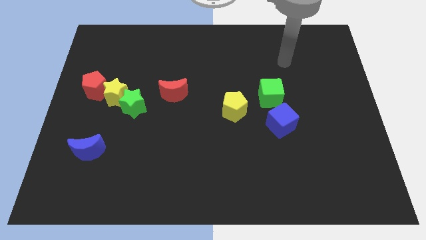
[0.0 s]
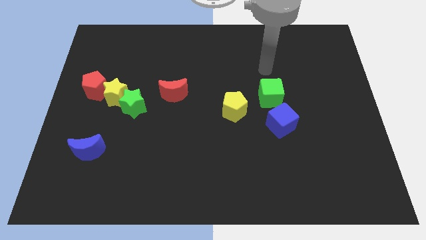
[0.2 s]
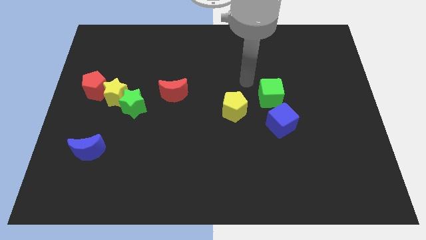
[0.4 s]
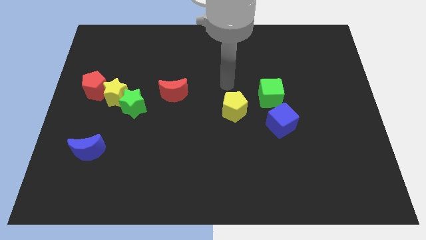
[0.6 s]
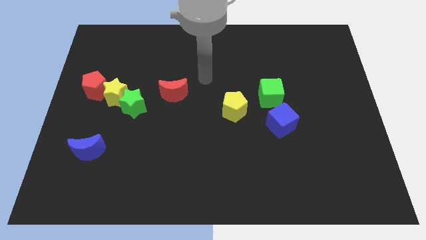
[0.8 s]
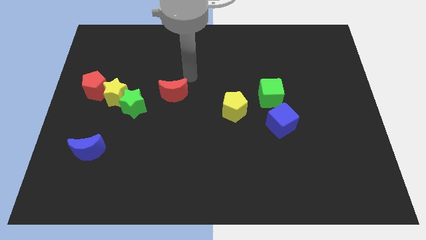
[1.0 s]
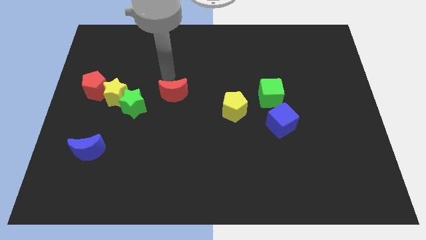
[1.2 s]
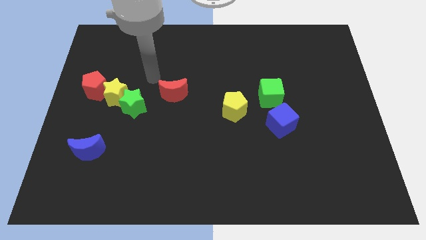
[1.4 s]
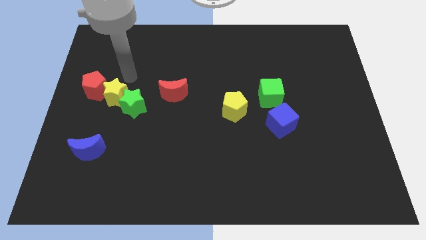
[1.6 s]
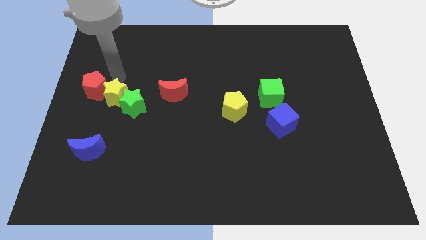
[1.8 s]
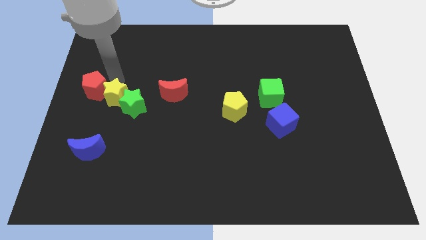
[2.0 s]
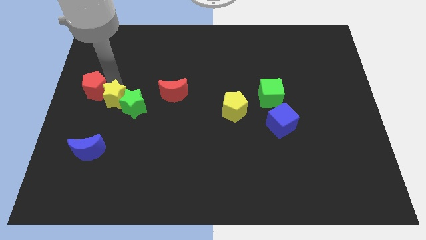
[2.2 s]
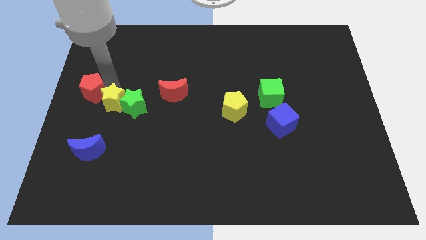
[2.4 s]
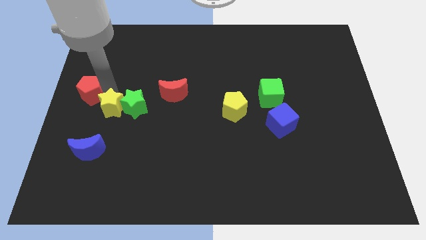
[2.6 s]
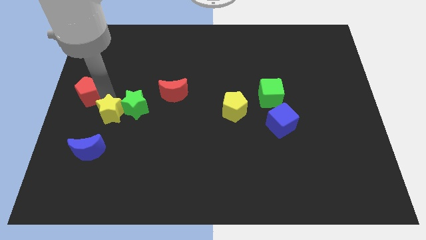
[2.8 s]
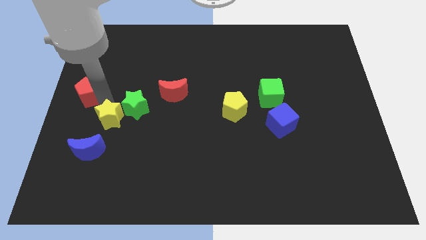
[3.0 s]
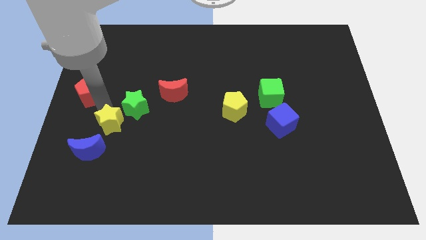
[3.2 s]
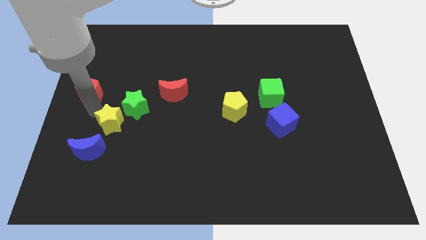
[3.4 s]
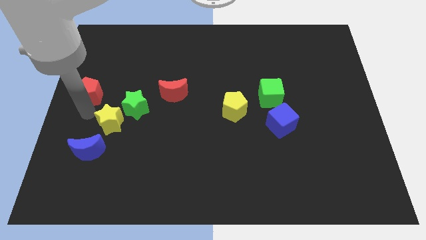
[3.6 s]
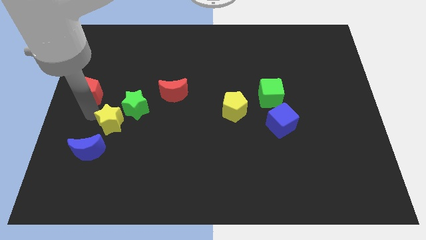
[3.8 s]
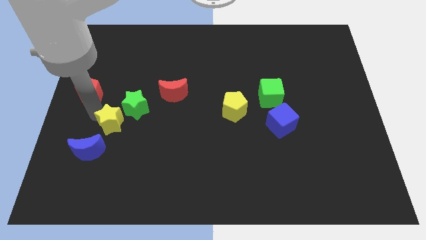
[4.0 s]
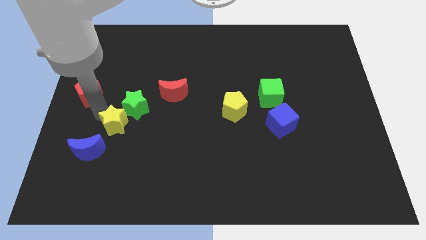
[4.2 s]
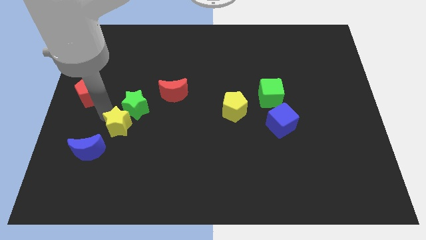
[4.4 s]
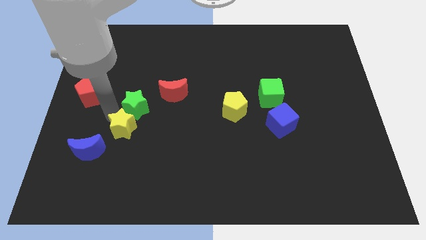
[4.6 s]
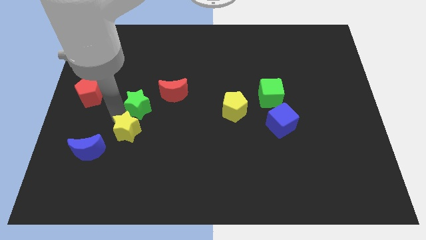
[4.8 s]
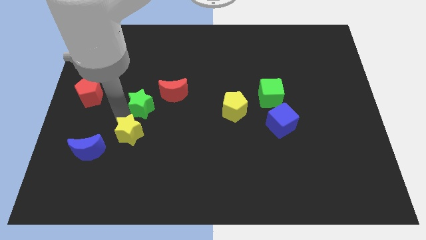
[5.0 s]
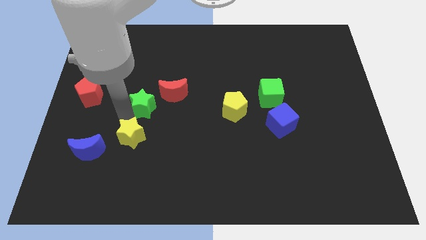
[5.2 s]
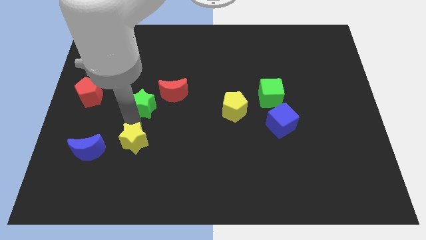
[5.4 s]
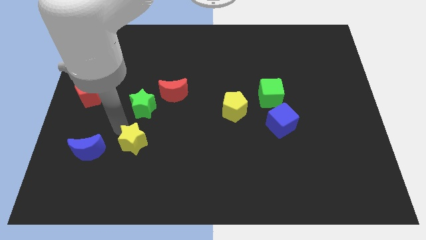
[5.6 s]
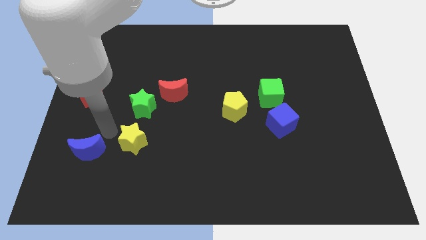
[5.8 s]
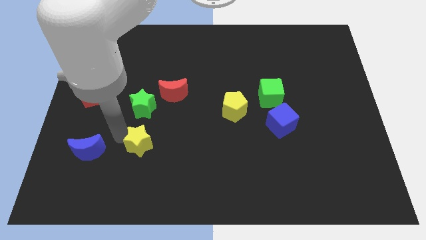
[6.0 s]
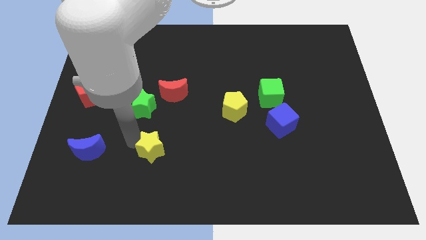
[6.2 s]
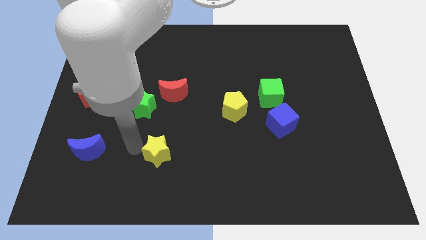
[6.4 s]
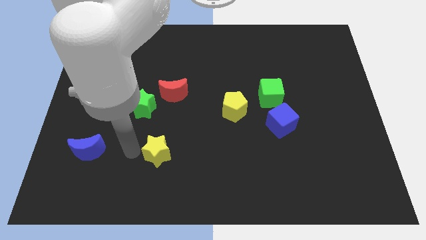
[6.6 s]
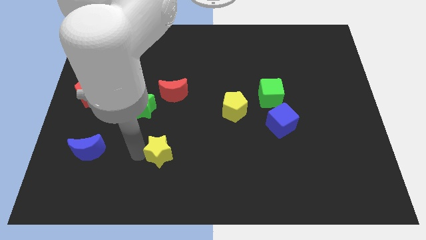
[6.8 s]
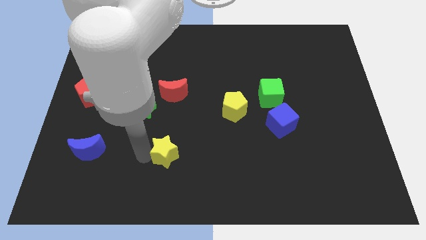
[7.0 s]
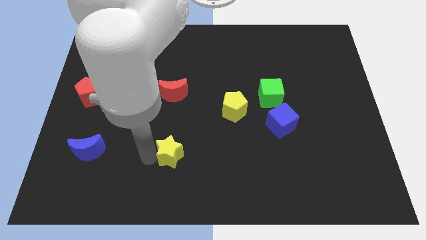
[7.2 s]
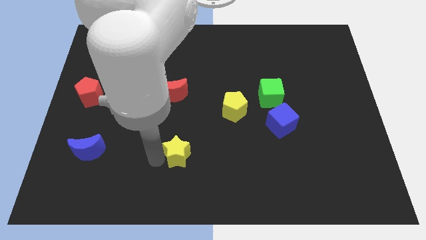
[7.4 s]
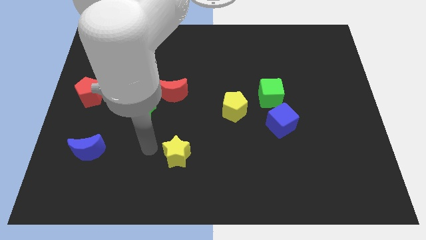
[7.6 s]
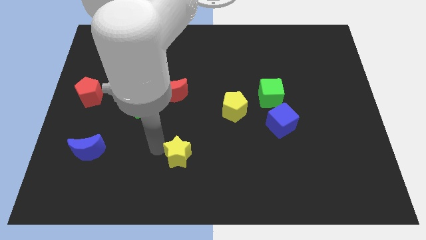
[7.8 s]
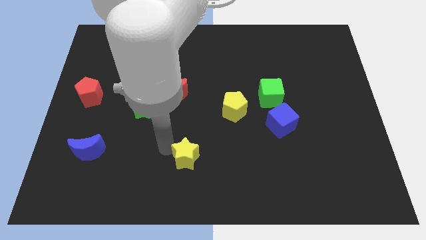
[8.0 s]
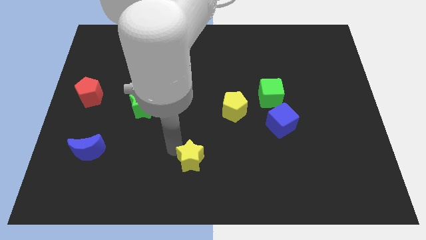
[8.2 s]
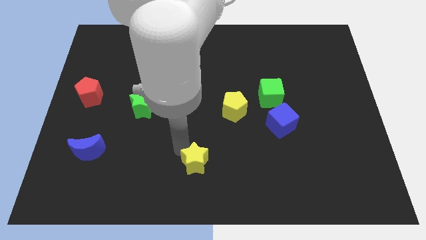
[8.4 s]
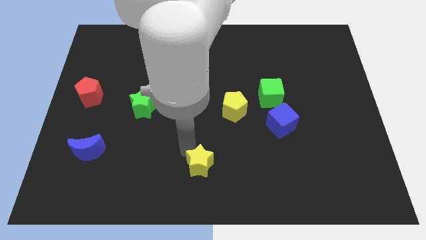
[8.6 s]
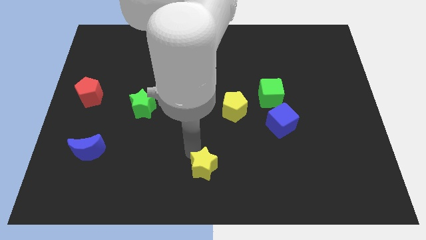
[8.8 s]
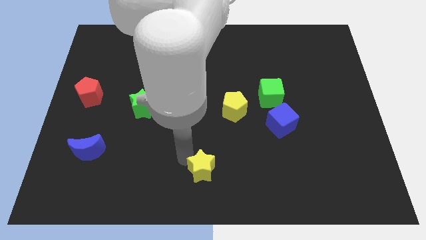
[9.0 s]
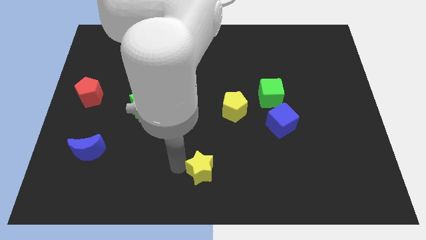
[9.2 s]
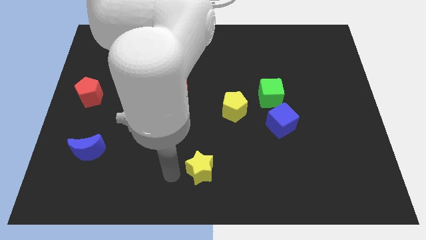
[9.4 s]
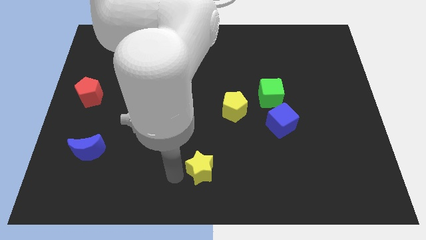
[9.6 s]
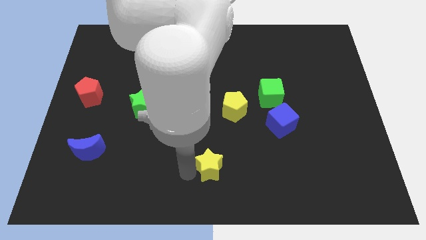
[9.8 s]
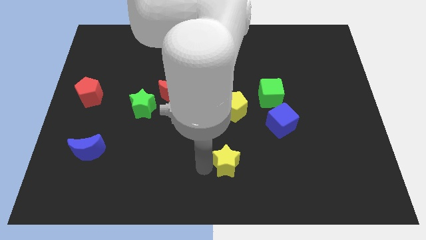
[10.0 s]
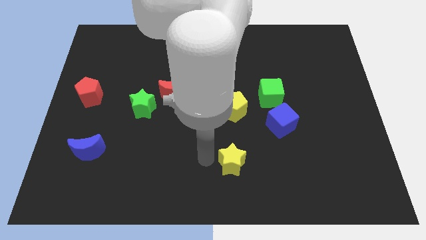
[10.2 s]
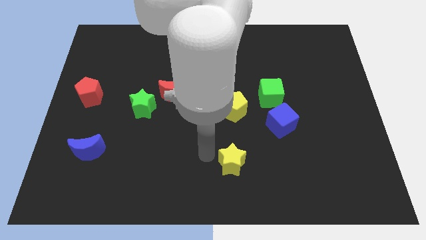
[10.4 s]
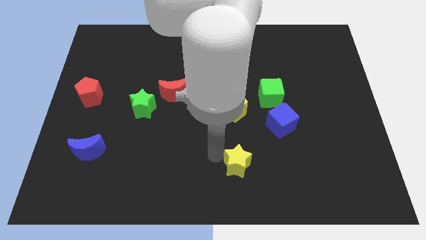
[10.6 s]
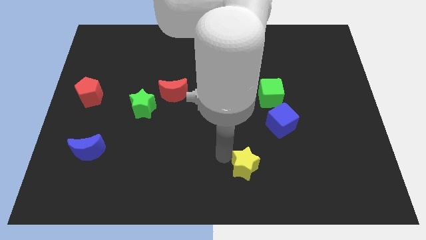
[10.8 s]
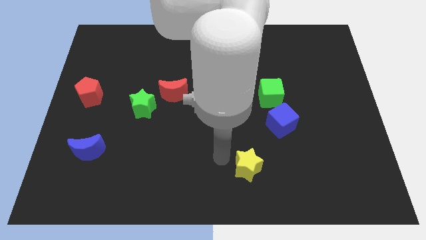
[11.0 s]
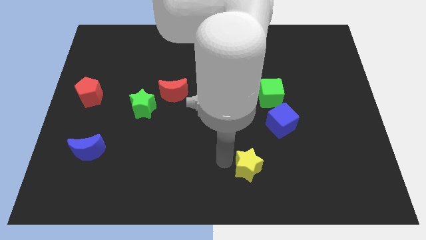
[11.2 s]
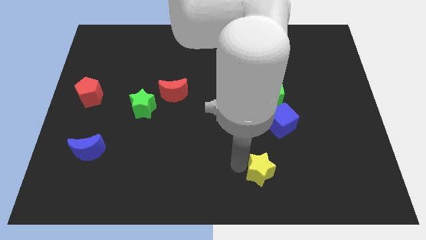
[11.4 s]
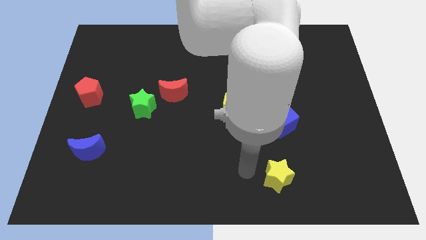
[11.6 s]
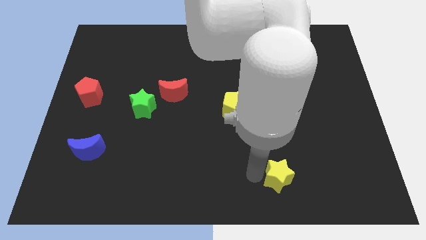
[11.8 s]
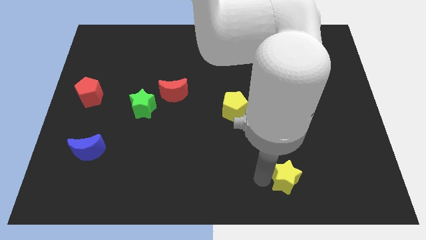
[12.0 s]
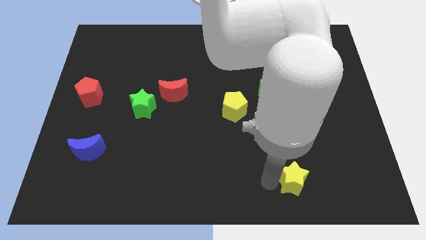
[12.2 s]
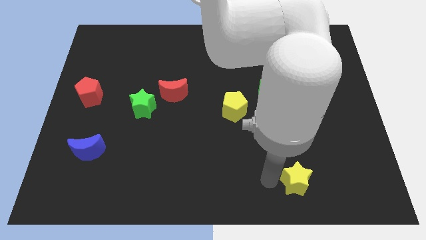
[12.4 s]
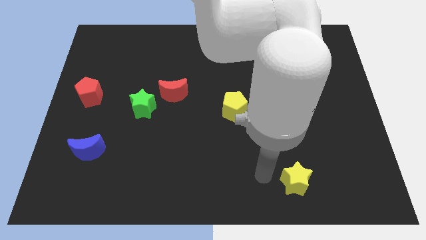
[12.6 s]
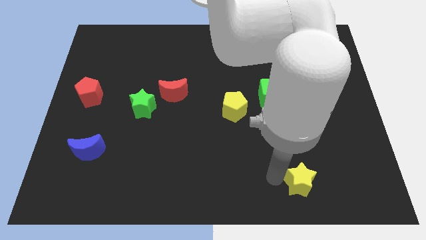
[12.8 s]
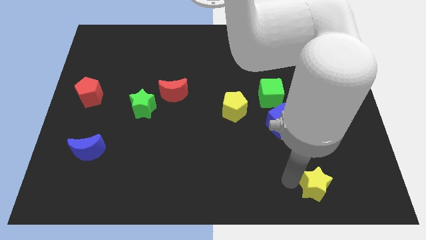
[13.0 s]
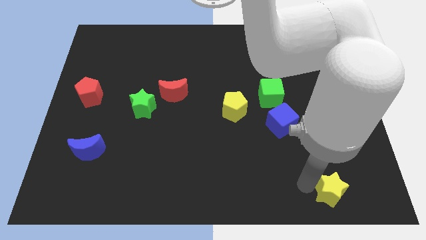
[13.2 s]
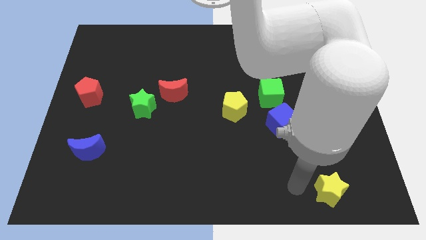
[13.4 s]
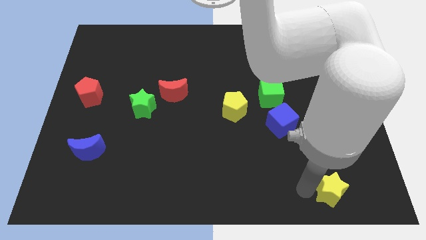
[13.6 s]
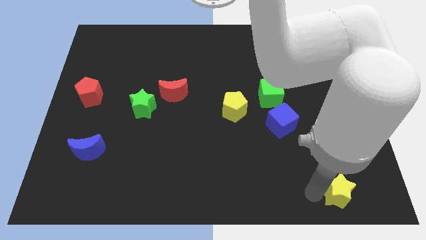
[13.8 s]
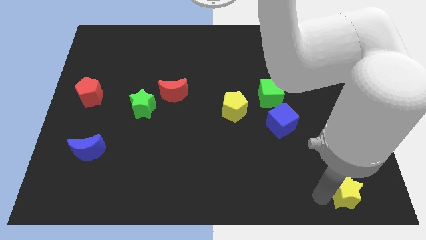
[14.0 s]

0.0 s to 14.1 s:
move the yellow star to the bottom right of the board

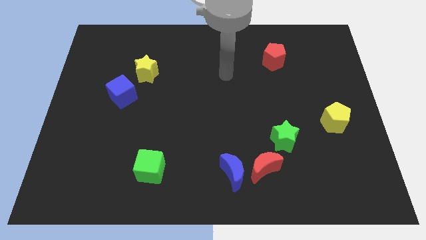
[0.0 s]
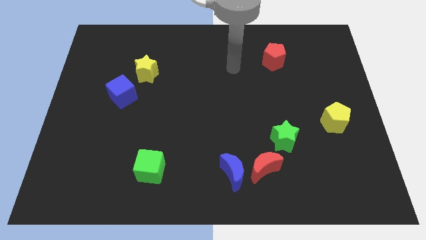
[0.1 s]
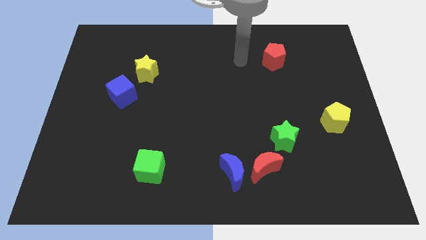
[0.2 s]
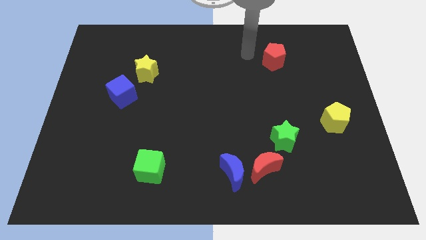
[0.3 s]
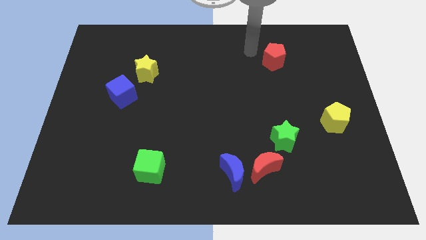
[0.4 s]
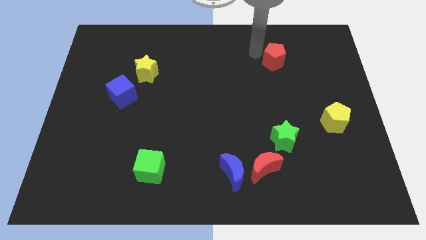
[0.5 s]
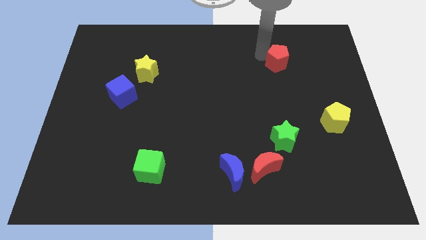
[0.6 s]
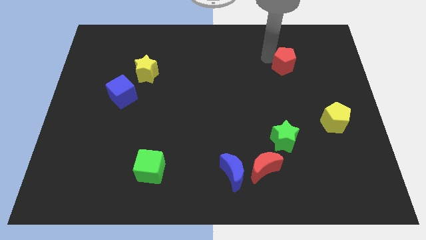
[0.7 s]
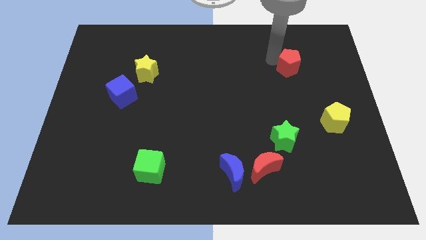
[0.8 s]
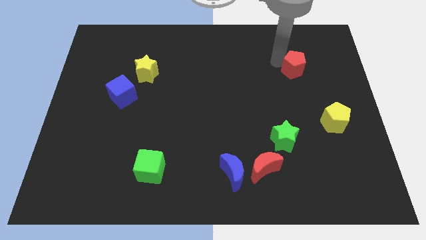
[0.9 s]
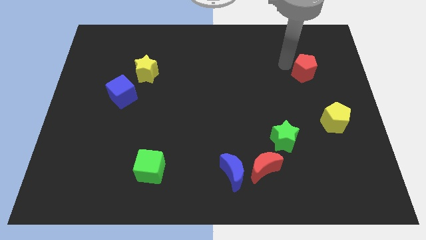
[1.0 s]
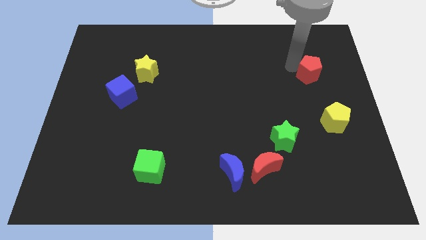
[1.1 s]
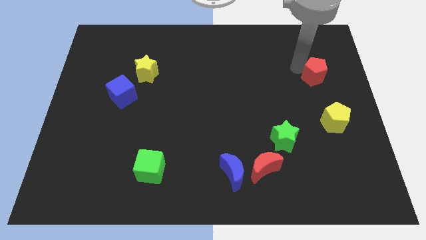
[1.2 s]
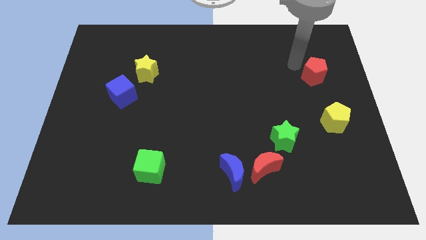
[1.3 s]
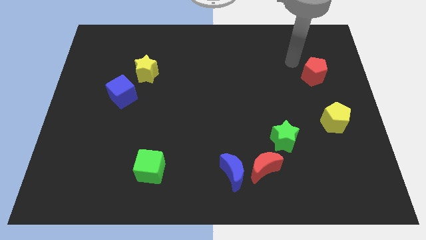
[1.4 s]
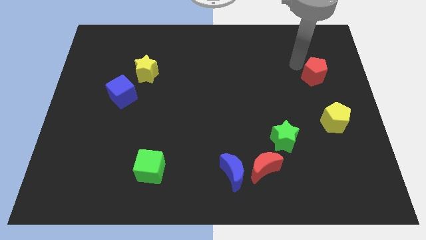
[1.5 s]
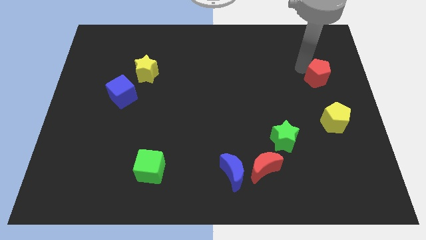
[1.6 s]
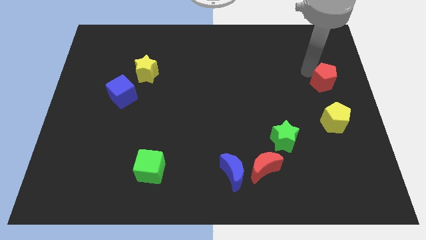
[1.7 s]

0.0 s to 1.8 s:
move the red pentagon to the right side of the board
